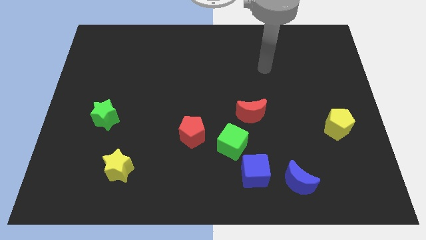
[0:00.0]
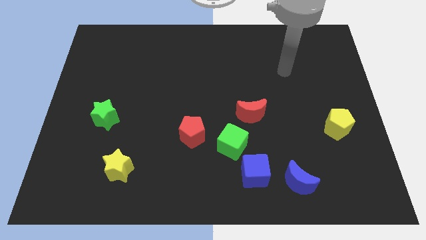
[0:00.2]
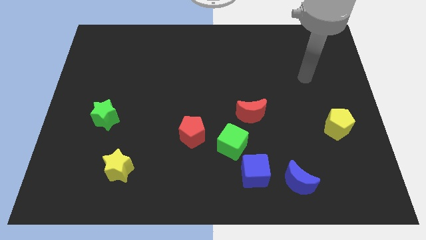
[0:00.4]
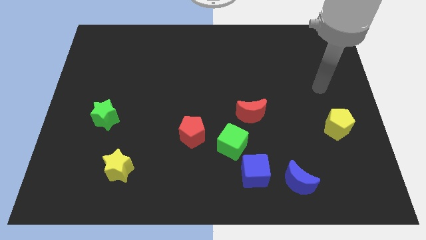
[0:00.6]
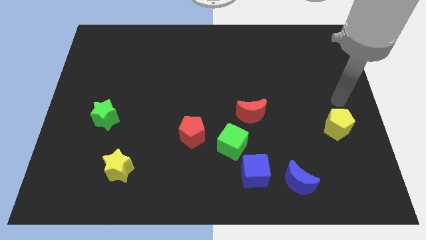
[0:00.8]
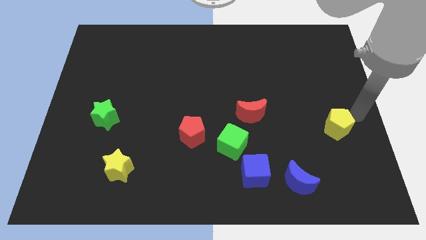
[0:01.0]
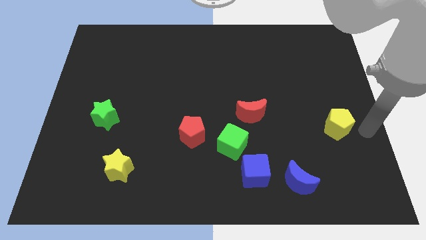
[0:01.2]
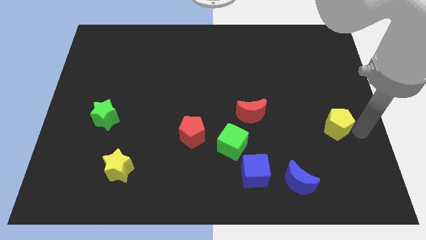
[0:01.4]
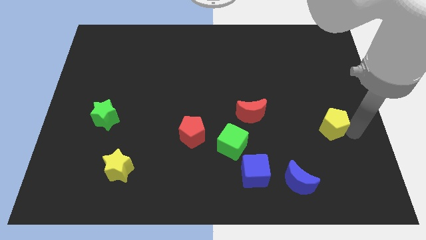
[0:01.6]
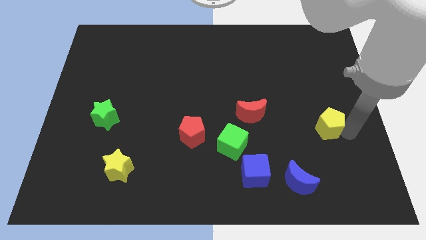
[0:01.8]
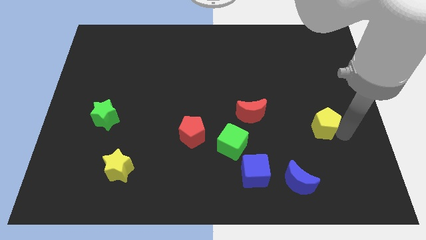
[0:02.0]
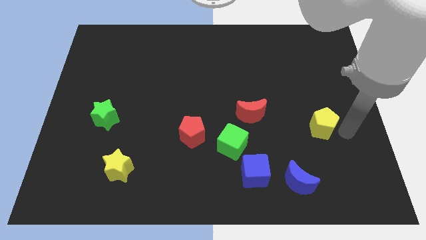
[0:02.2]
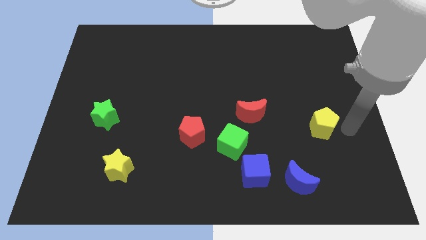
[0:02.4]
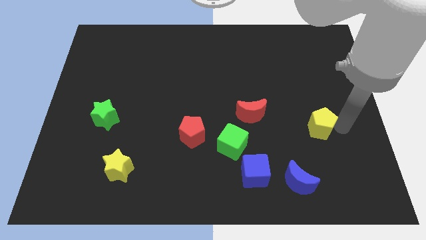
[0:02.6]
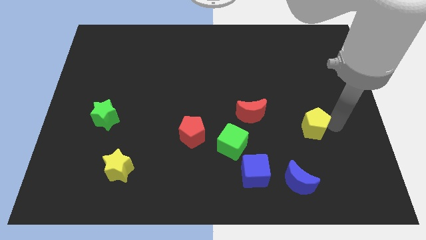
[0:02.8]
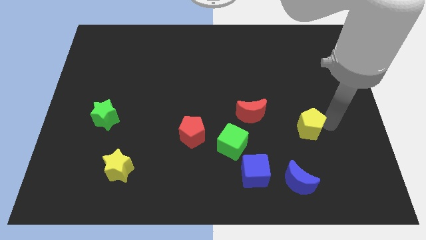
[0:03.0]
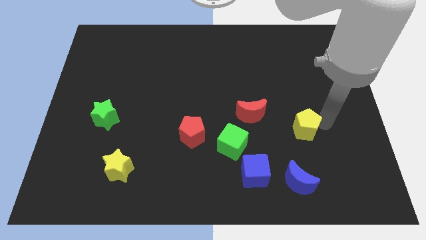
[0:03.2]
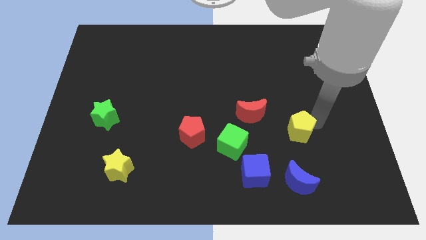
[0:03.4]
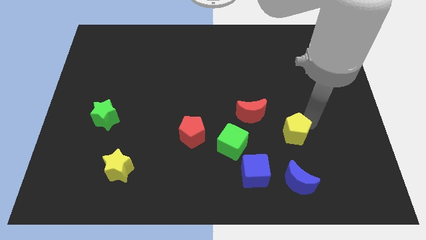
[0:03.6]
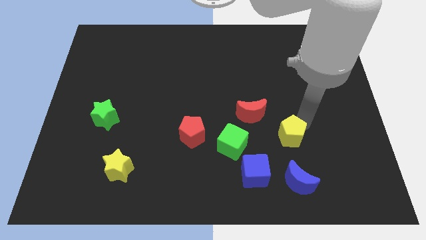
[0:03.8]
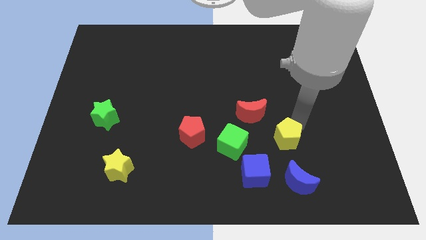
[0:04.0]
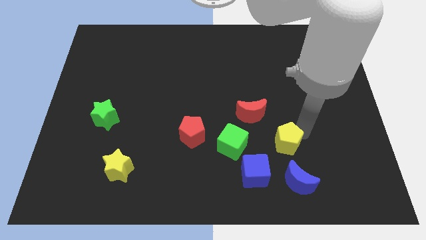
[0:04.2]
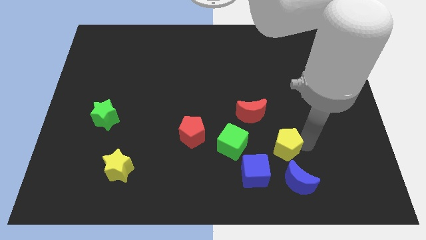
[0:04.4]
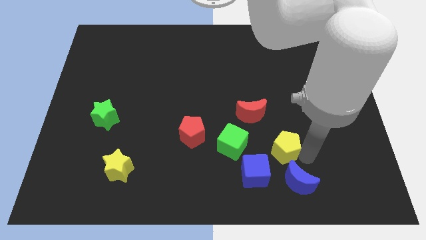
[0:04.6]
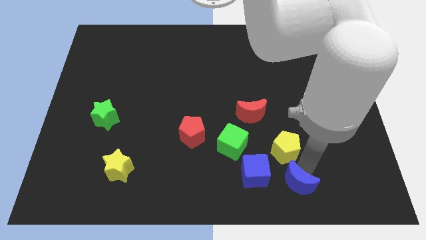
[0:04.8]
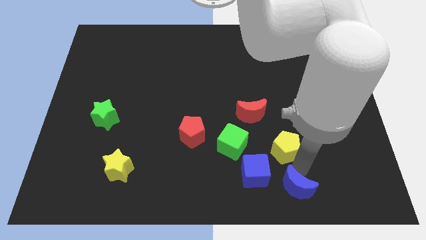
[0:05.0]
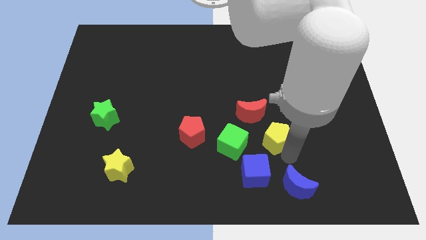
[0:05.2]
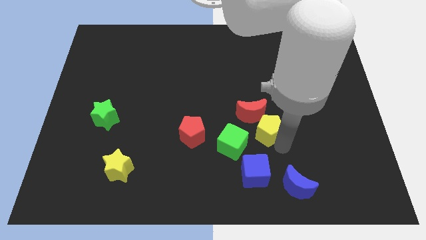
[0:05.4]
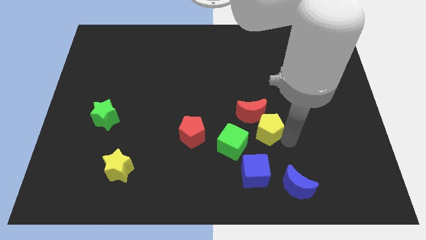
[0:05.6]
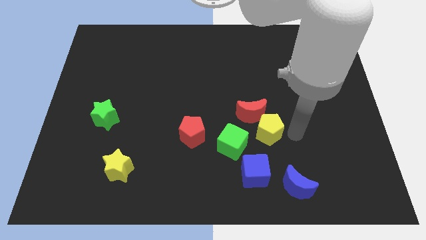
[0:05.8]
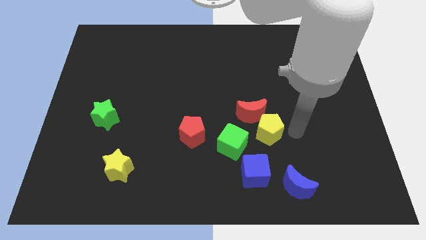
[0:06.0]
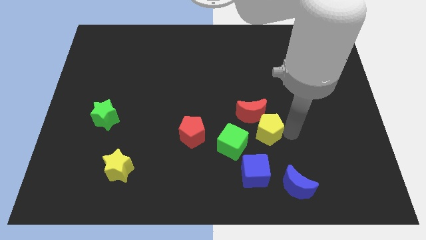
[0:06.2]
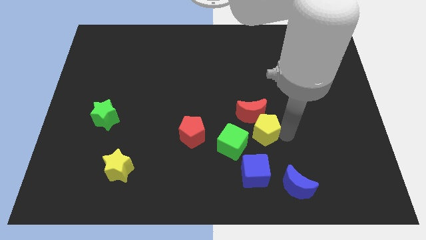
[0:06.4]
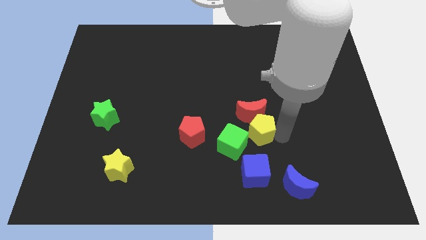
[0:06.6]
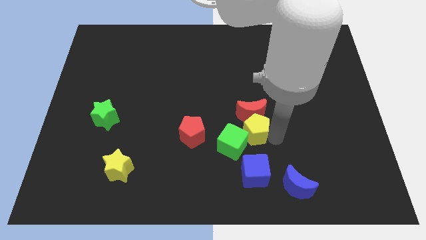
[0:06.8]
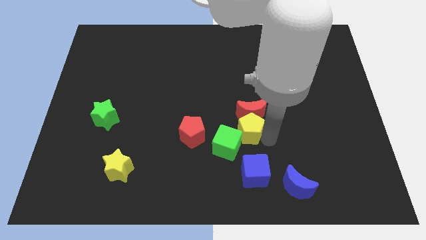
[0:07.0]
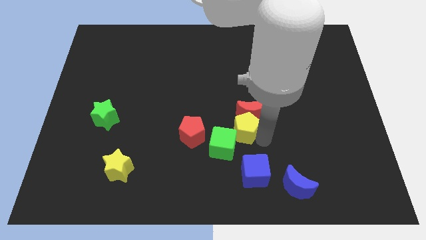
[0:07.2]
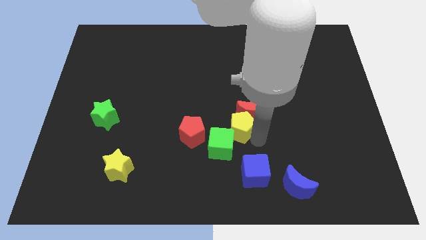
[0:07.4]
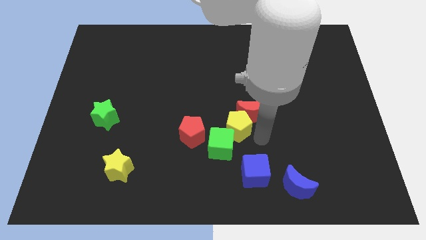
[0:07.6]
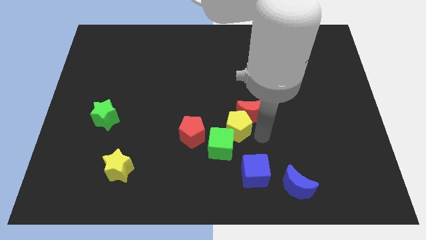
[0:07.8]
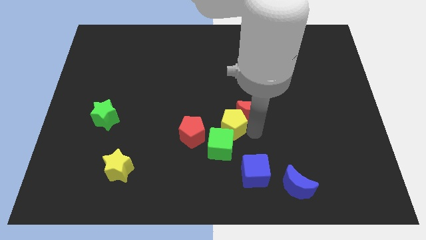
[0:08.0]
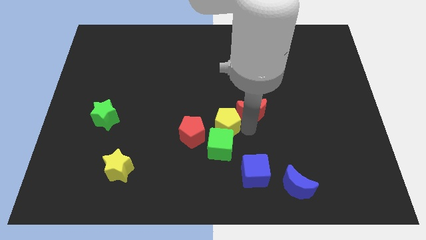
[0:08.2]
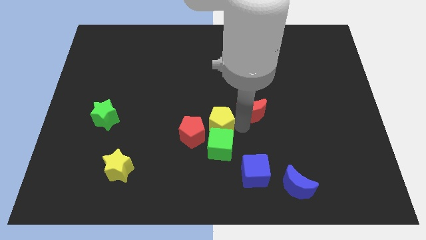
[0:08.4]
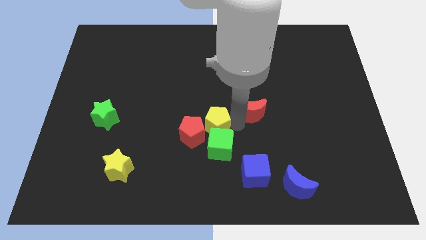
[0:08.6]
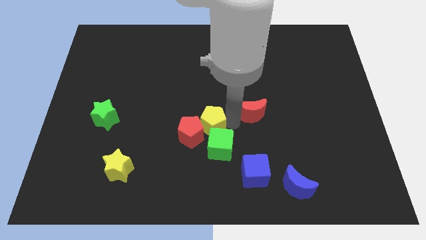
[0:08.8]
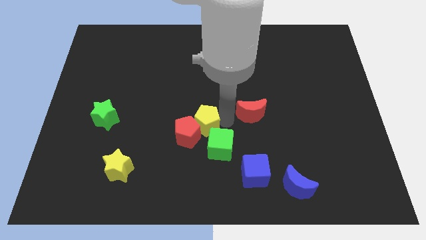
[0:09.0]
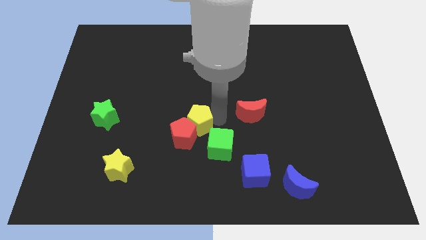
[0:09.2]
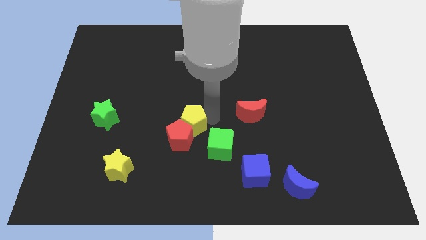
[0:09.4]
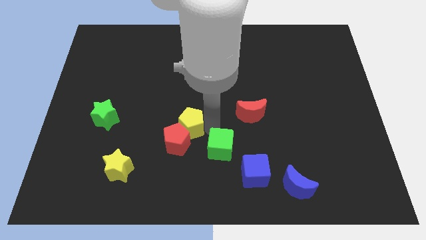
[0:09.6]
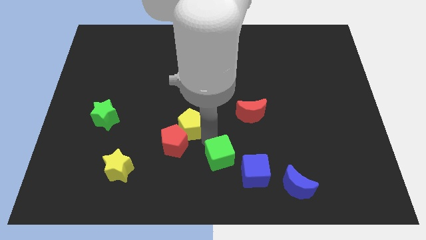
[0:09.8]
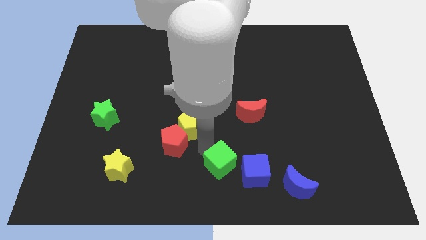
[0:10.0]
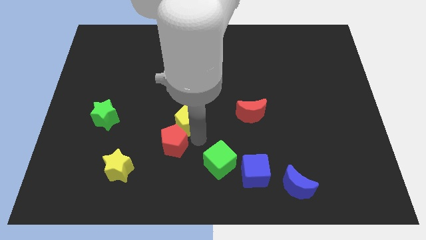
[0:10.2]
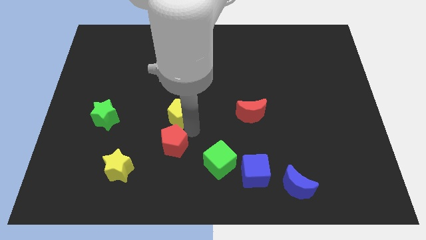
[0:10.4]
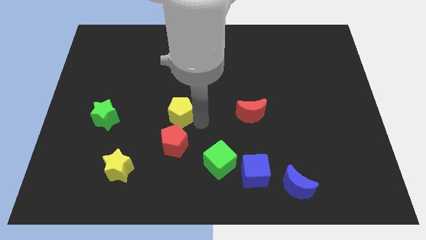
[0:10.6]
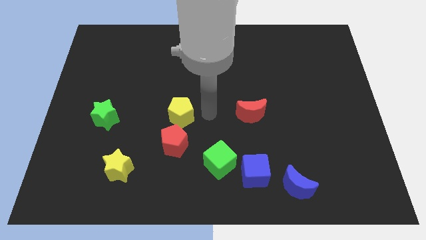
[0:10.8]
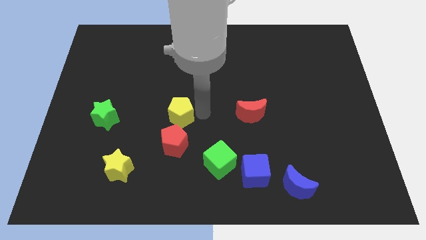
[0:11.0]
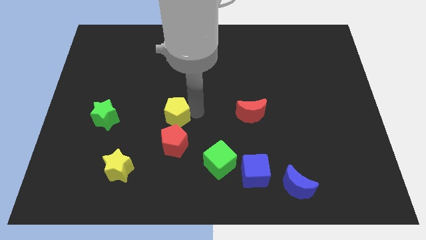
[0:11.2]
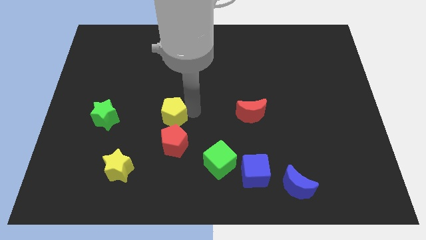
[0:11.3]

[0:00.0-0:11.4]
slide the yellow pentagon right of the green star

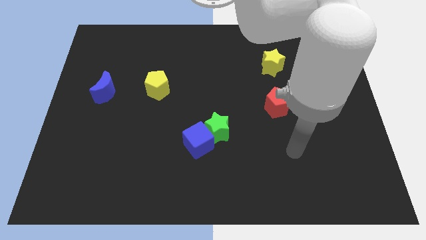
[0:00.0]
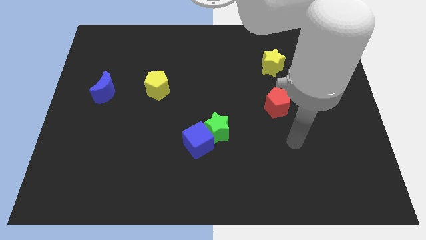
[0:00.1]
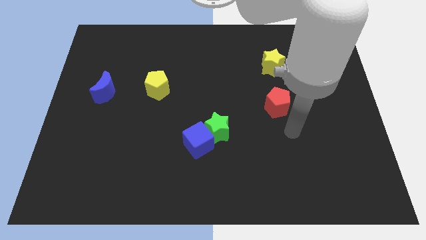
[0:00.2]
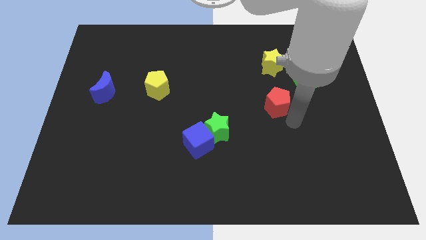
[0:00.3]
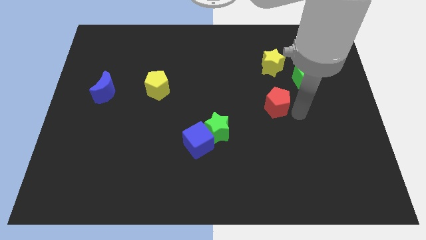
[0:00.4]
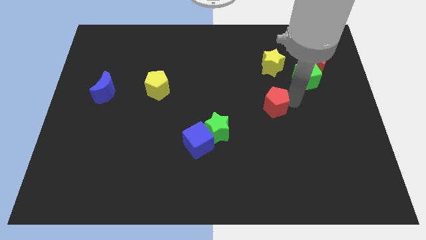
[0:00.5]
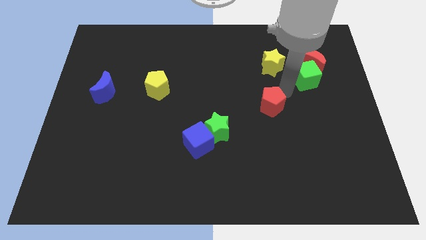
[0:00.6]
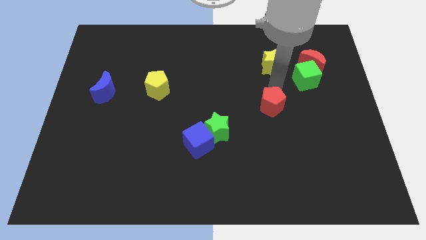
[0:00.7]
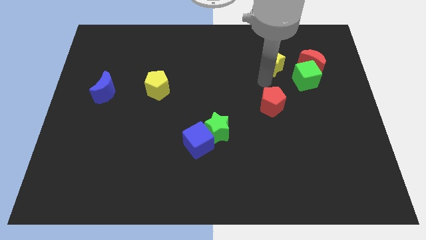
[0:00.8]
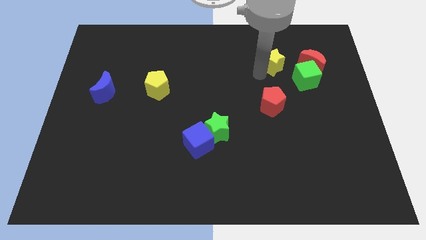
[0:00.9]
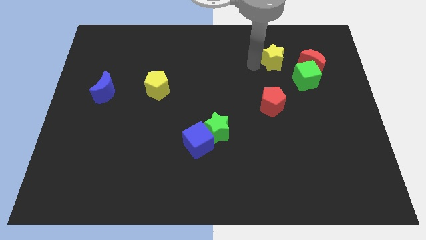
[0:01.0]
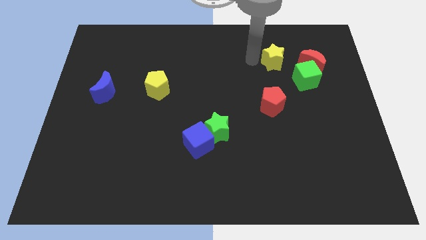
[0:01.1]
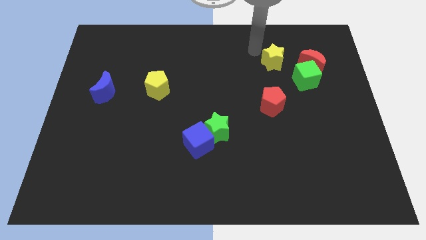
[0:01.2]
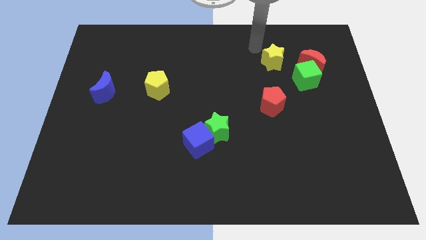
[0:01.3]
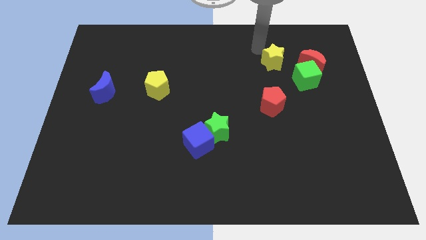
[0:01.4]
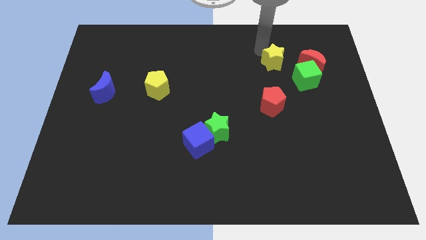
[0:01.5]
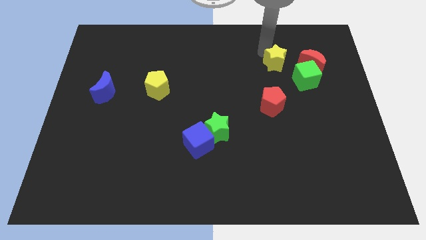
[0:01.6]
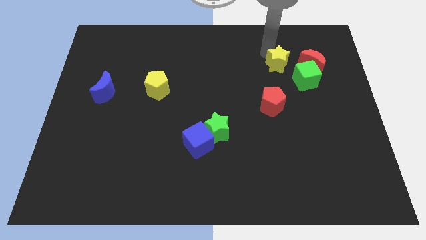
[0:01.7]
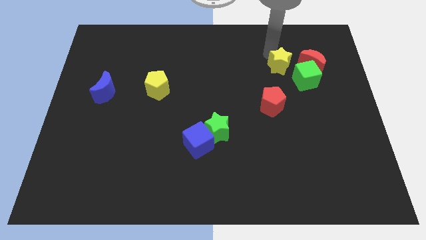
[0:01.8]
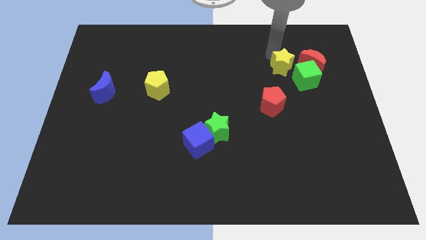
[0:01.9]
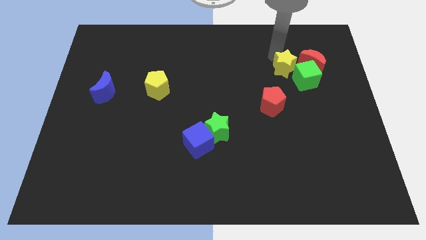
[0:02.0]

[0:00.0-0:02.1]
push the yellow star to the bottom left side of the red moon
